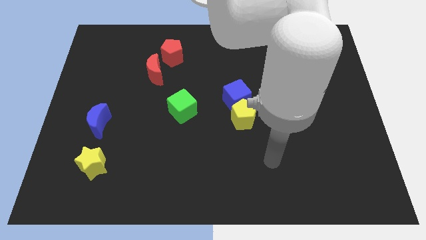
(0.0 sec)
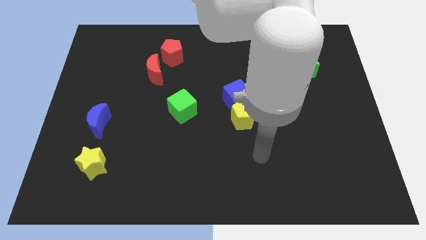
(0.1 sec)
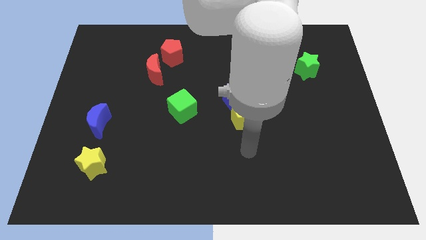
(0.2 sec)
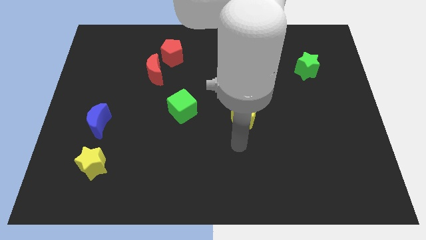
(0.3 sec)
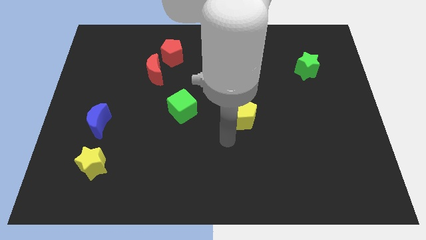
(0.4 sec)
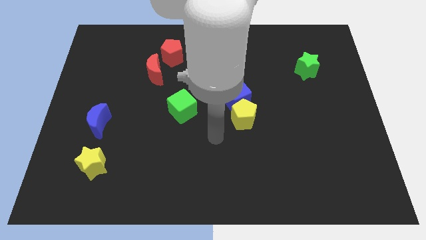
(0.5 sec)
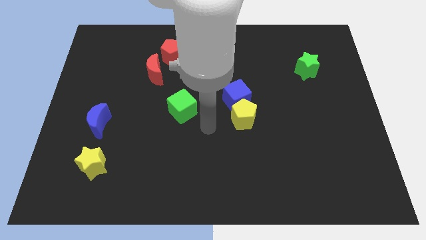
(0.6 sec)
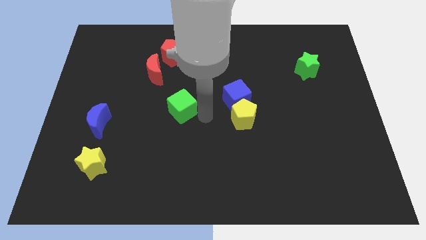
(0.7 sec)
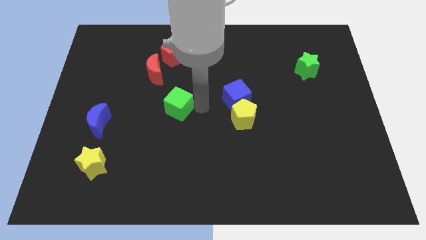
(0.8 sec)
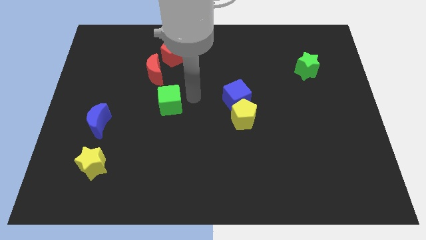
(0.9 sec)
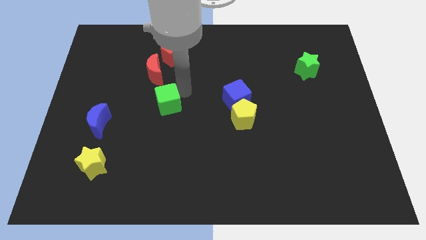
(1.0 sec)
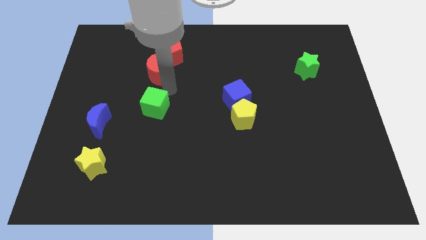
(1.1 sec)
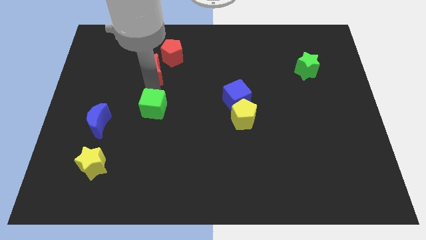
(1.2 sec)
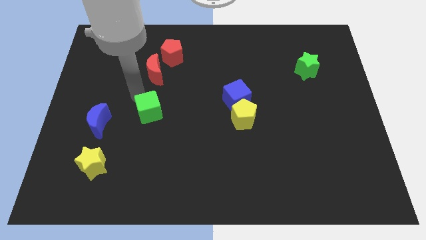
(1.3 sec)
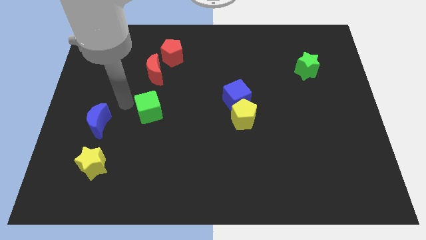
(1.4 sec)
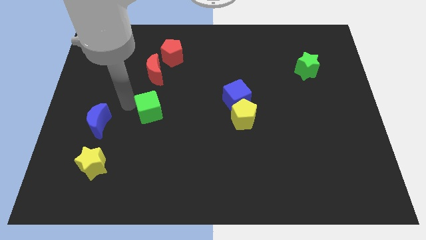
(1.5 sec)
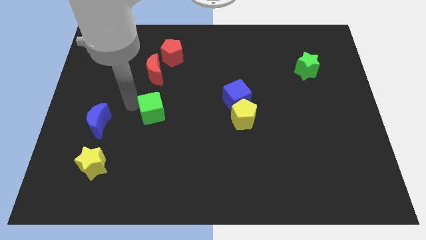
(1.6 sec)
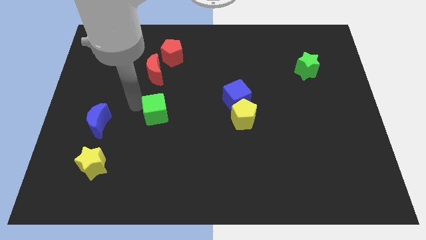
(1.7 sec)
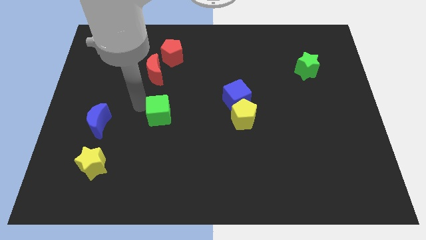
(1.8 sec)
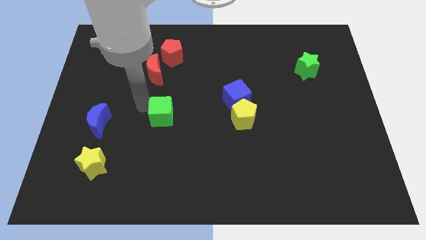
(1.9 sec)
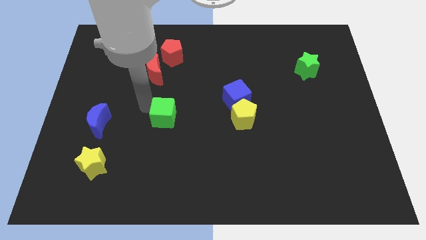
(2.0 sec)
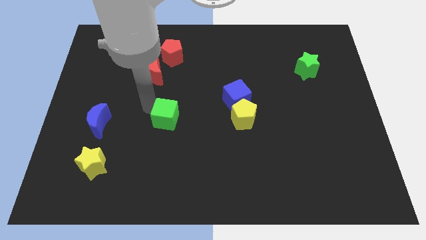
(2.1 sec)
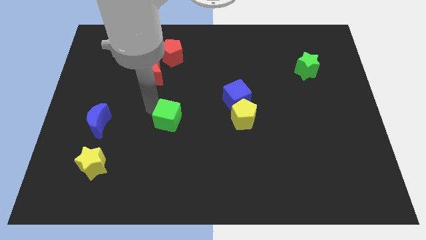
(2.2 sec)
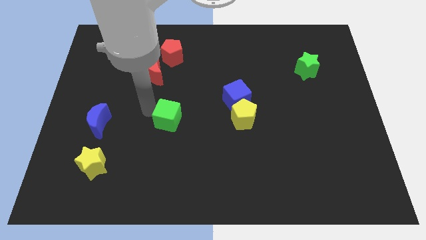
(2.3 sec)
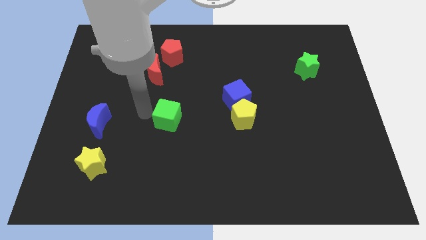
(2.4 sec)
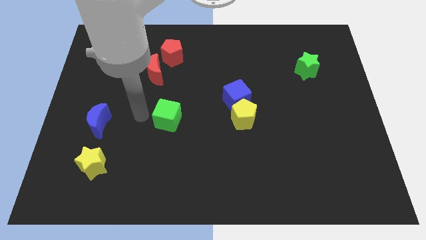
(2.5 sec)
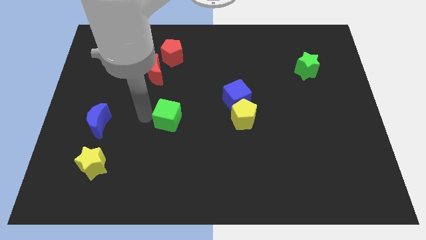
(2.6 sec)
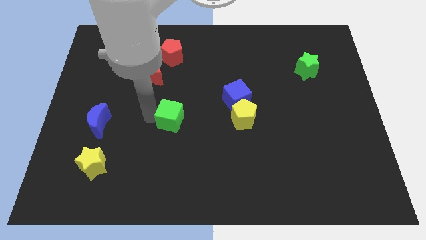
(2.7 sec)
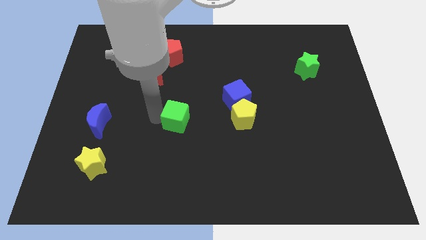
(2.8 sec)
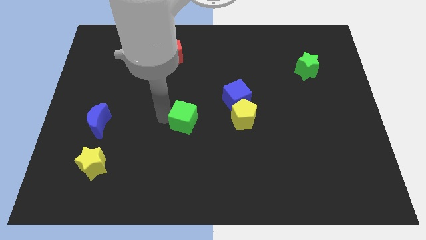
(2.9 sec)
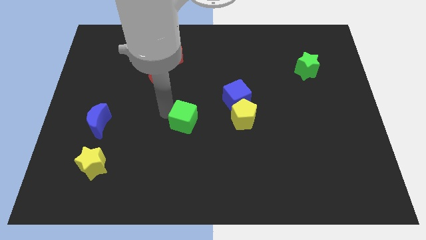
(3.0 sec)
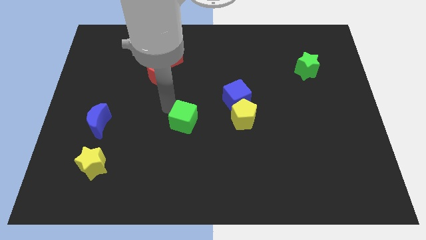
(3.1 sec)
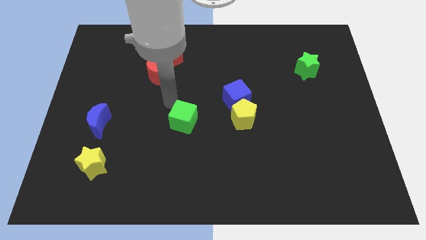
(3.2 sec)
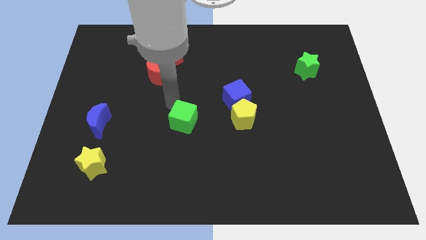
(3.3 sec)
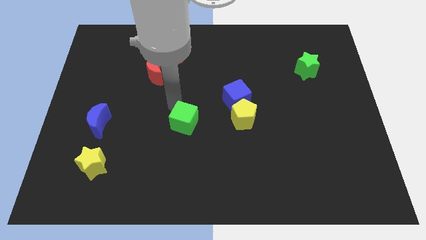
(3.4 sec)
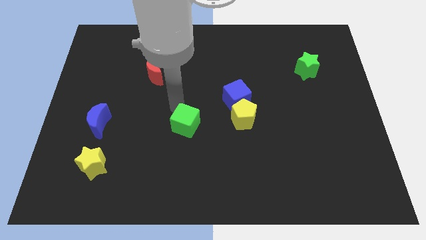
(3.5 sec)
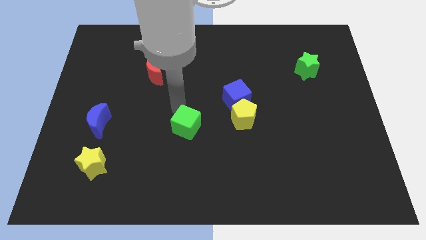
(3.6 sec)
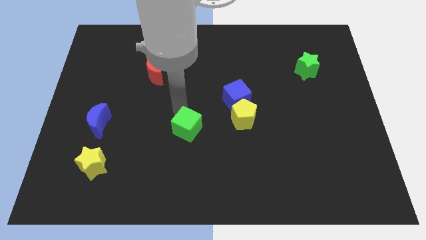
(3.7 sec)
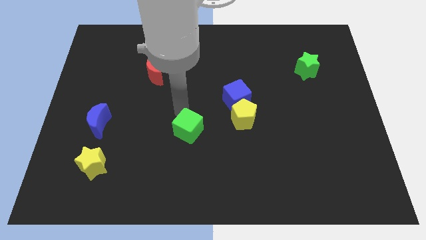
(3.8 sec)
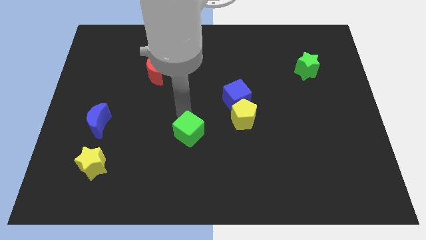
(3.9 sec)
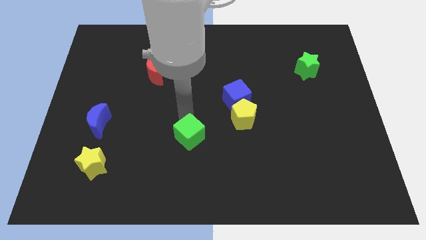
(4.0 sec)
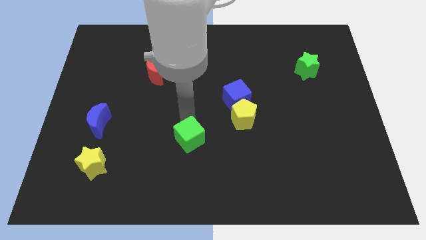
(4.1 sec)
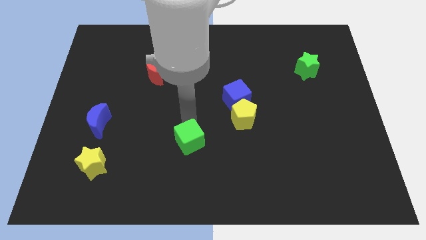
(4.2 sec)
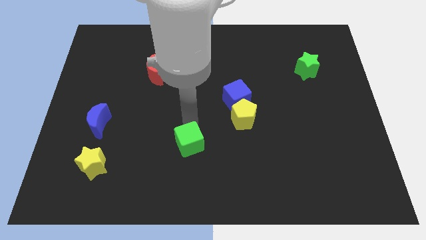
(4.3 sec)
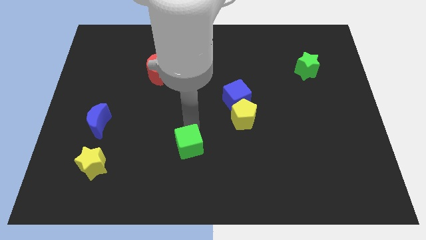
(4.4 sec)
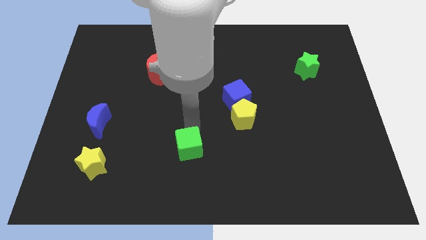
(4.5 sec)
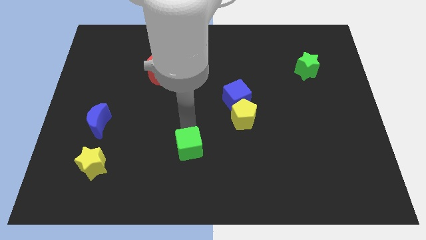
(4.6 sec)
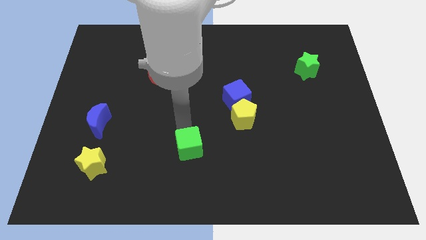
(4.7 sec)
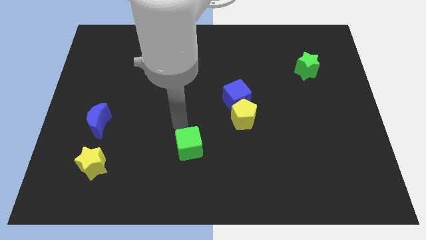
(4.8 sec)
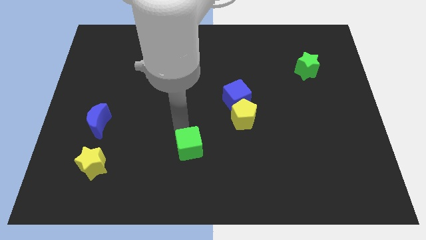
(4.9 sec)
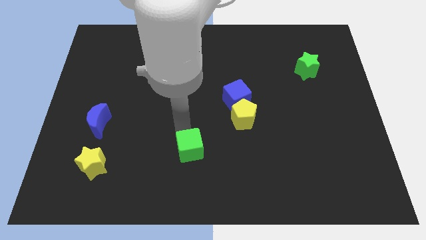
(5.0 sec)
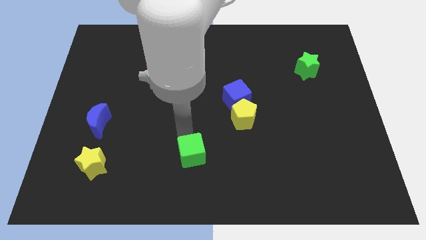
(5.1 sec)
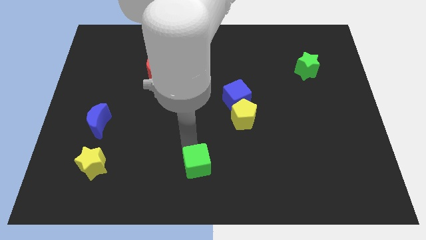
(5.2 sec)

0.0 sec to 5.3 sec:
put the green cube to the bottom side

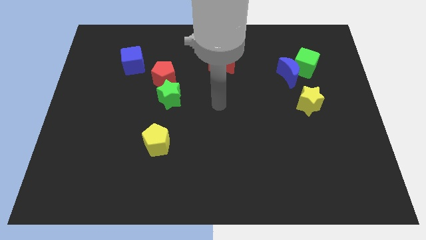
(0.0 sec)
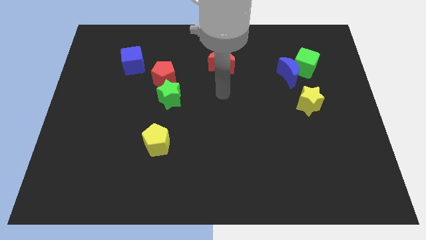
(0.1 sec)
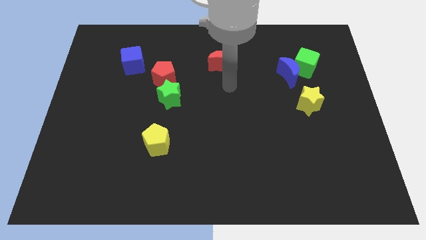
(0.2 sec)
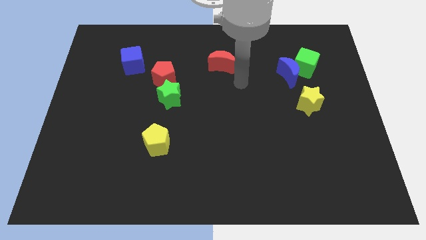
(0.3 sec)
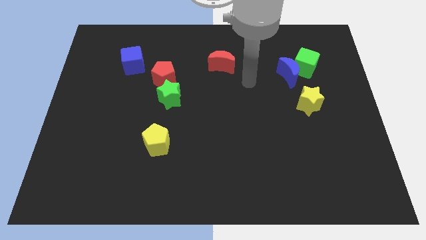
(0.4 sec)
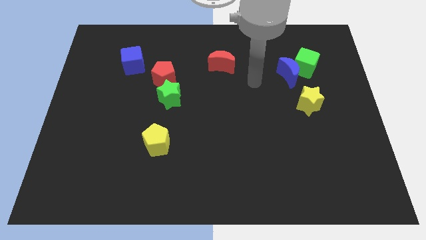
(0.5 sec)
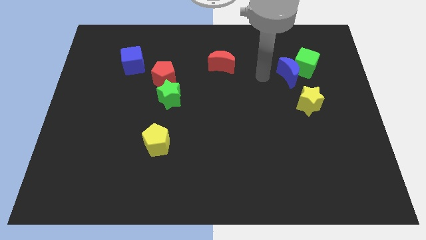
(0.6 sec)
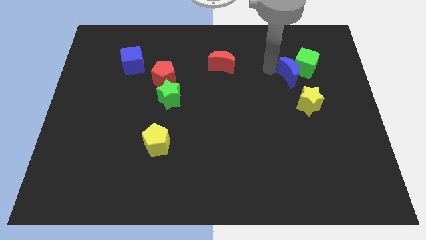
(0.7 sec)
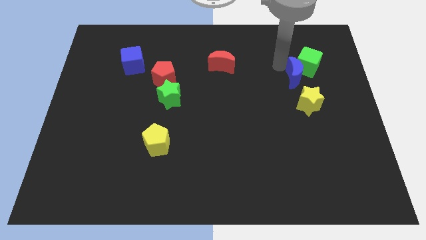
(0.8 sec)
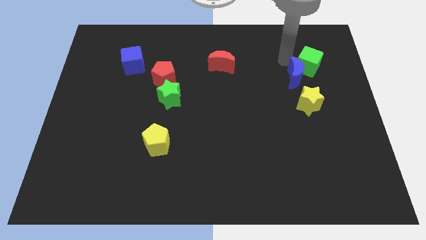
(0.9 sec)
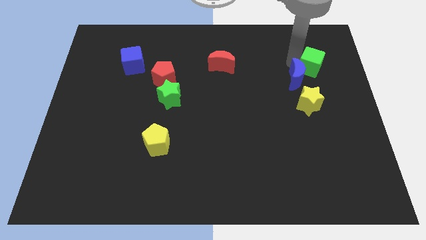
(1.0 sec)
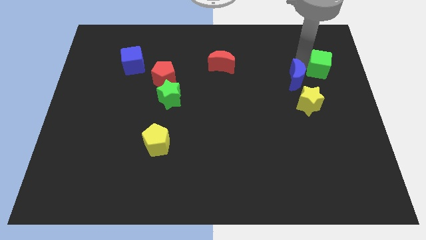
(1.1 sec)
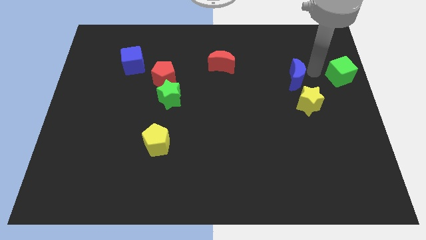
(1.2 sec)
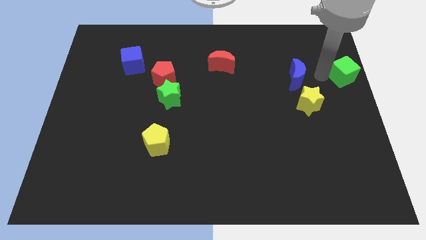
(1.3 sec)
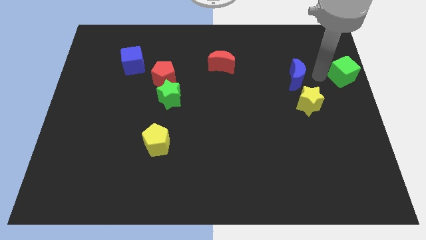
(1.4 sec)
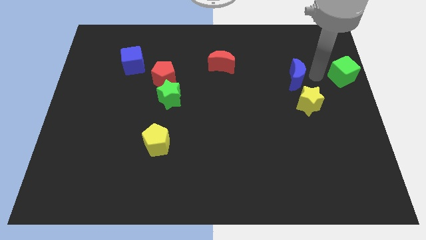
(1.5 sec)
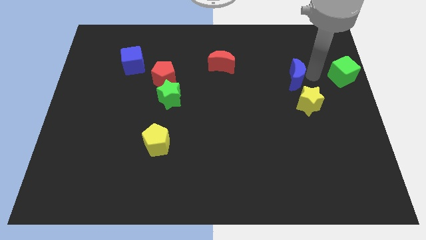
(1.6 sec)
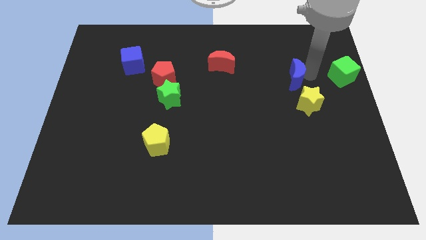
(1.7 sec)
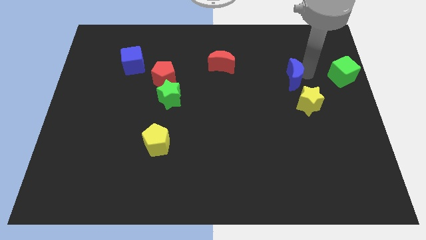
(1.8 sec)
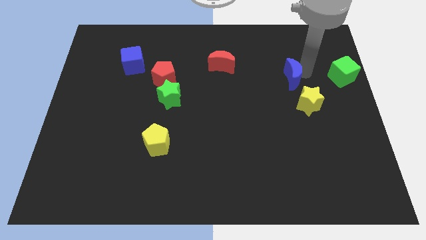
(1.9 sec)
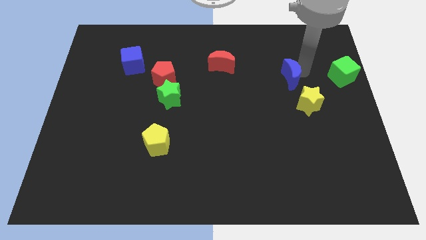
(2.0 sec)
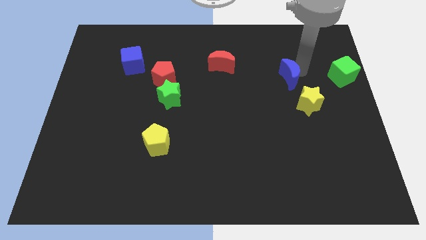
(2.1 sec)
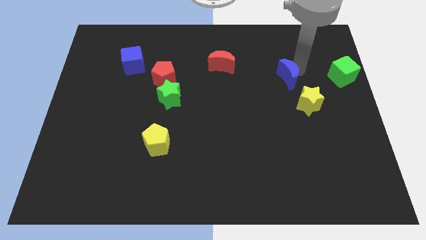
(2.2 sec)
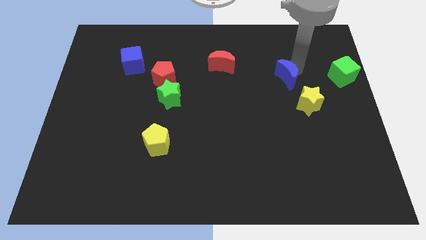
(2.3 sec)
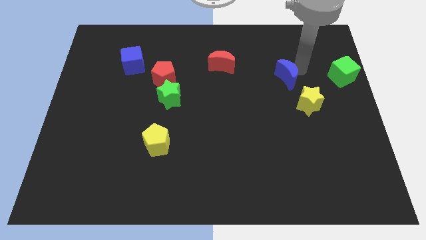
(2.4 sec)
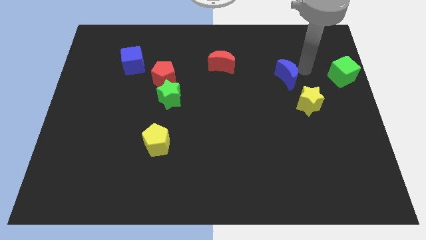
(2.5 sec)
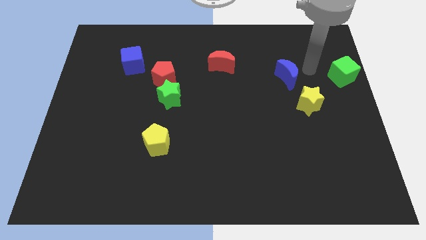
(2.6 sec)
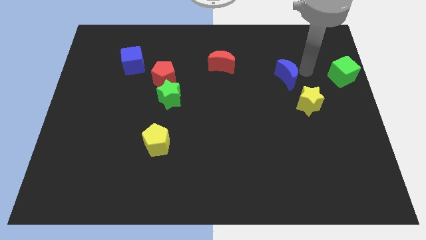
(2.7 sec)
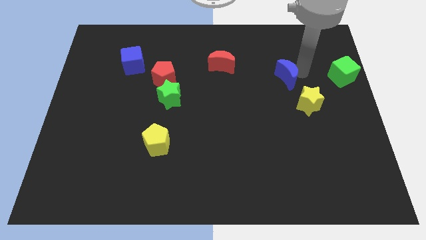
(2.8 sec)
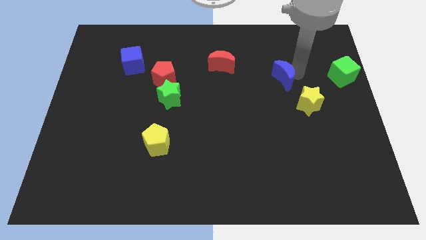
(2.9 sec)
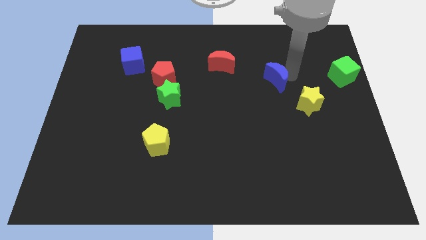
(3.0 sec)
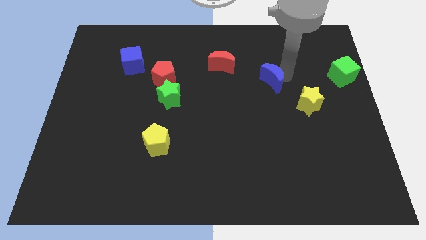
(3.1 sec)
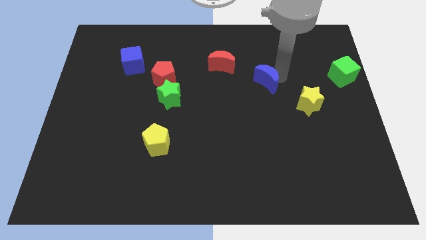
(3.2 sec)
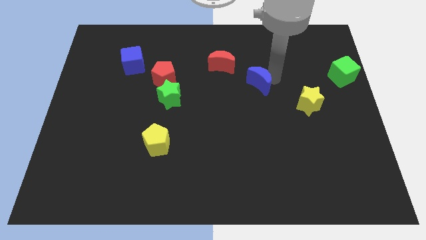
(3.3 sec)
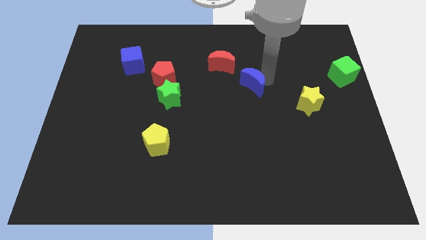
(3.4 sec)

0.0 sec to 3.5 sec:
put the blue moon to the center
